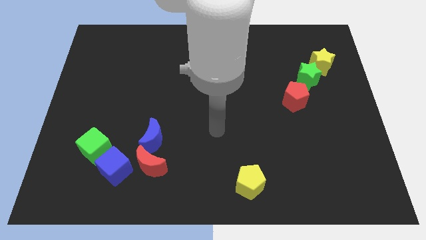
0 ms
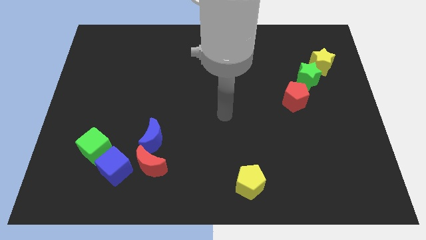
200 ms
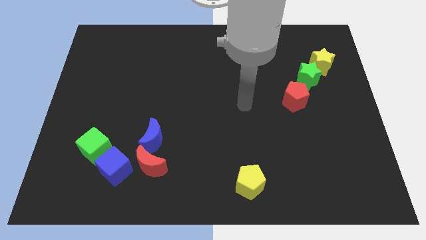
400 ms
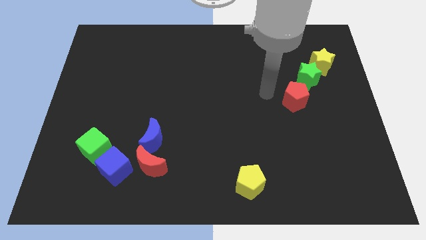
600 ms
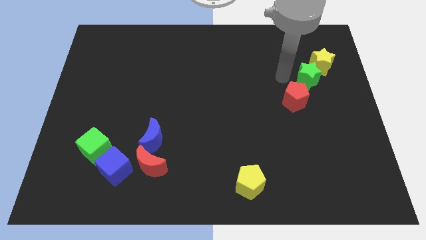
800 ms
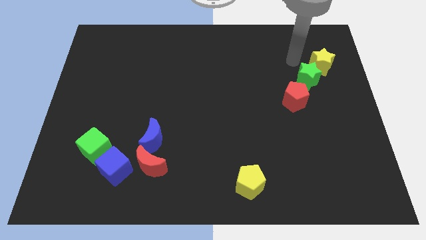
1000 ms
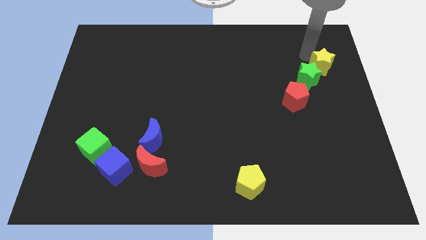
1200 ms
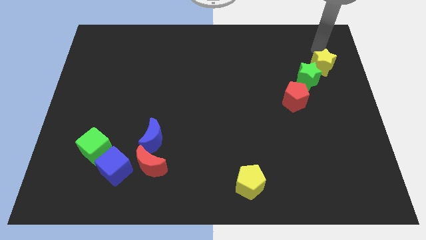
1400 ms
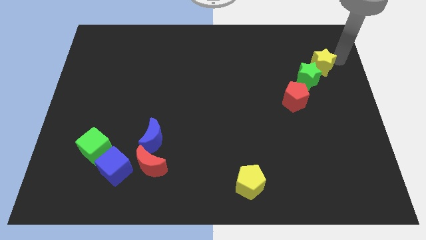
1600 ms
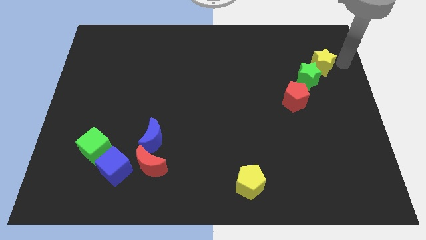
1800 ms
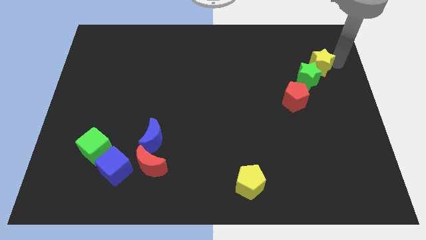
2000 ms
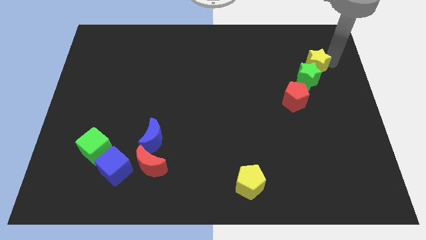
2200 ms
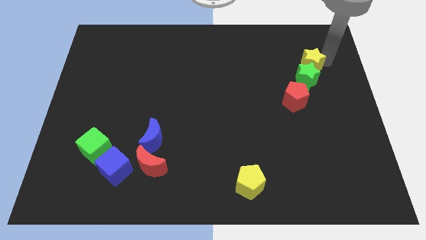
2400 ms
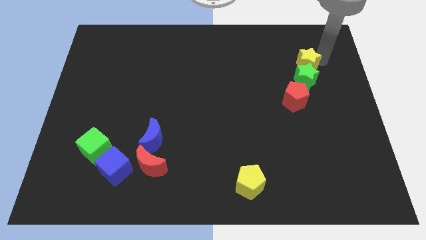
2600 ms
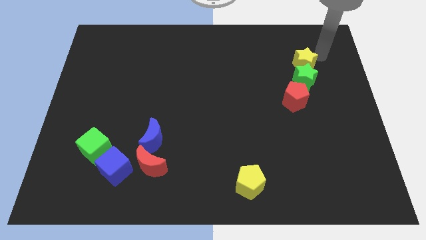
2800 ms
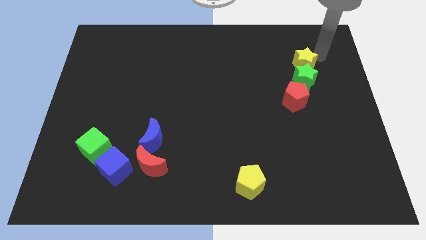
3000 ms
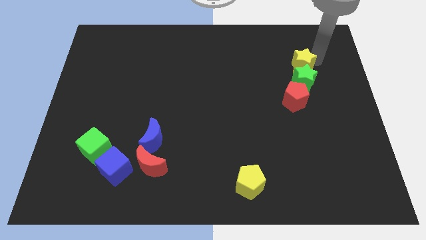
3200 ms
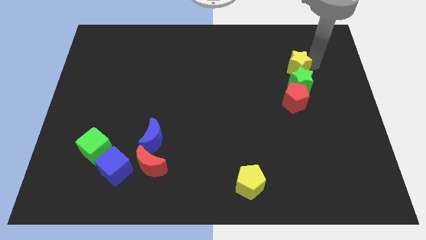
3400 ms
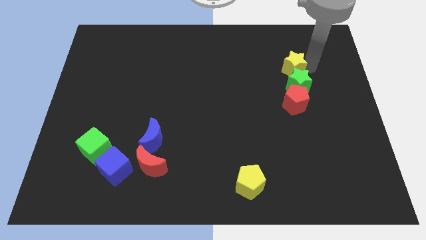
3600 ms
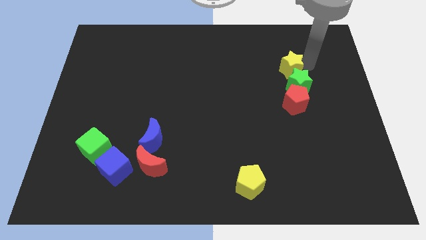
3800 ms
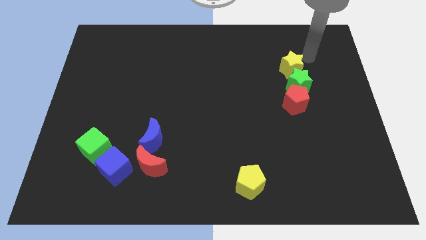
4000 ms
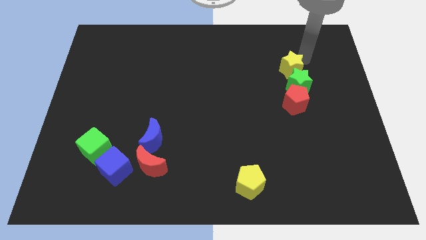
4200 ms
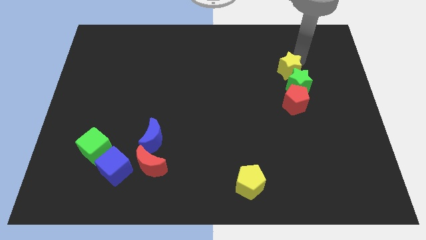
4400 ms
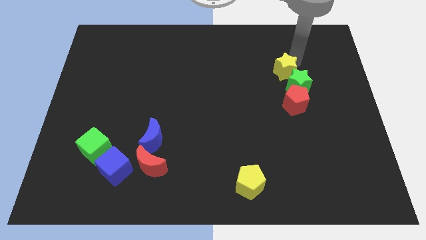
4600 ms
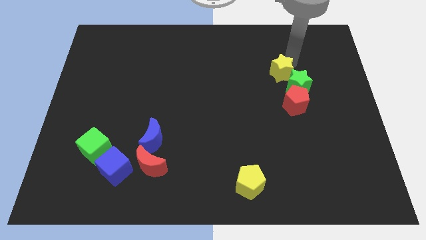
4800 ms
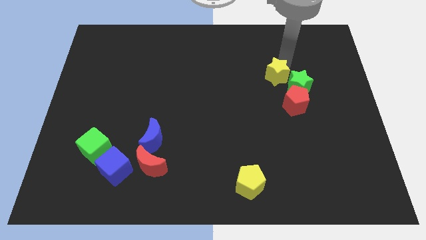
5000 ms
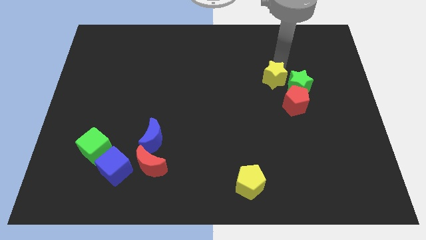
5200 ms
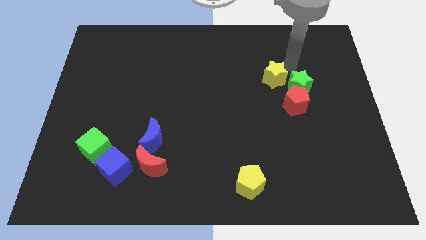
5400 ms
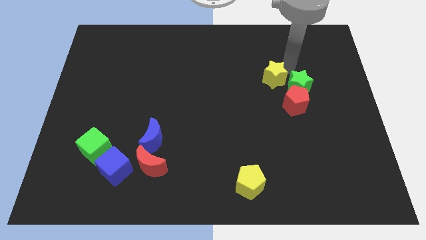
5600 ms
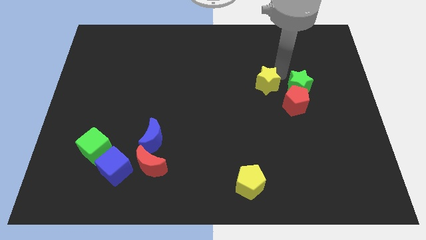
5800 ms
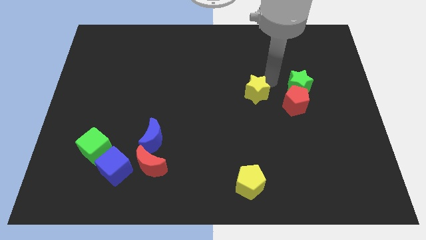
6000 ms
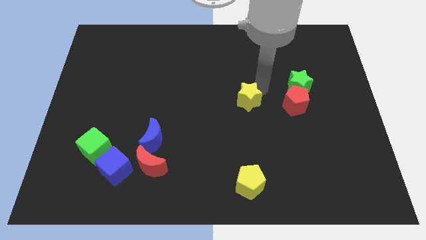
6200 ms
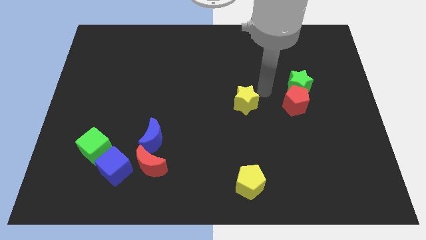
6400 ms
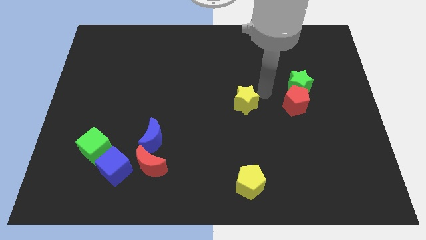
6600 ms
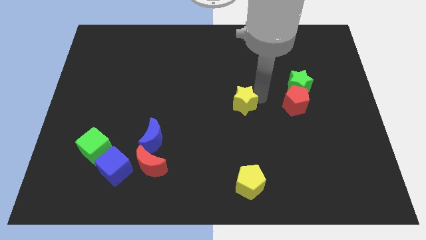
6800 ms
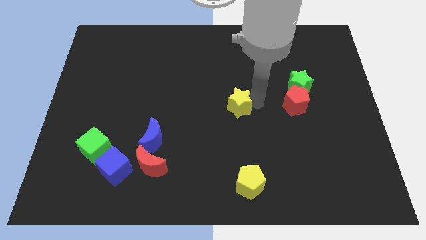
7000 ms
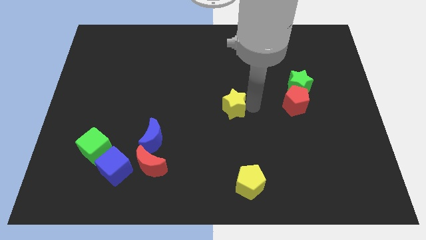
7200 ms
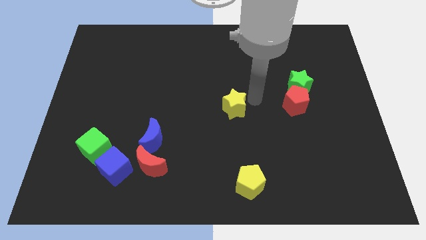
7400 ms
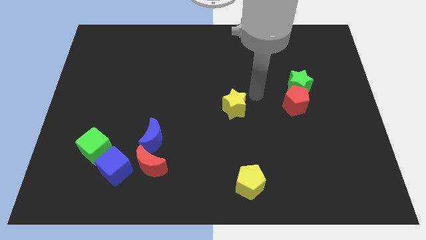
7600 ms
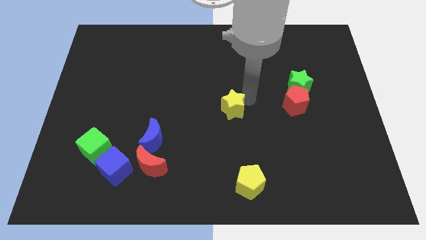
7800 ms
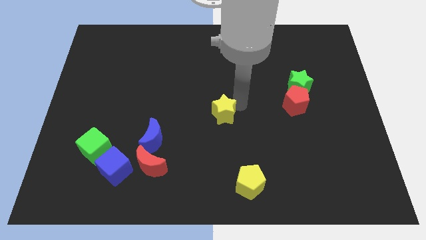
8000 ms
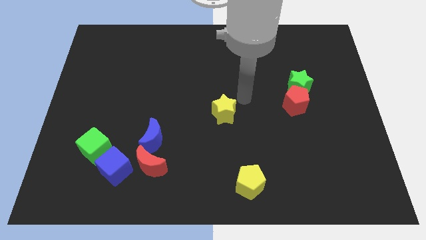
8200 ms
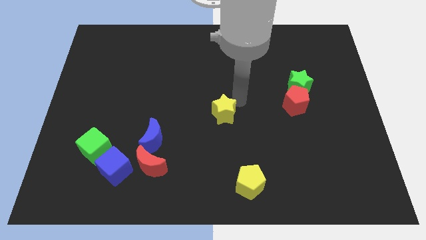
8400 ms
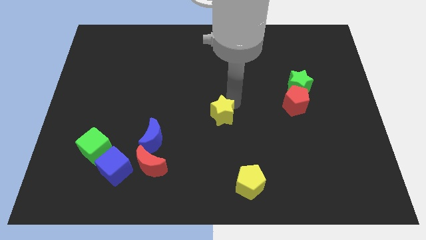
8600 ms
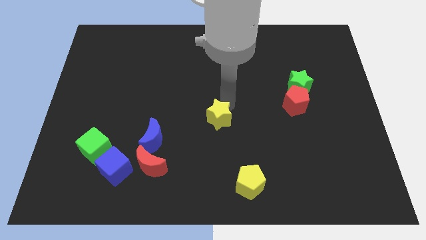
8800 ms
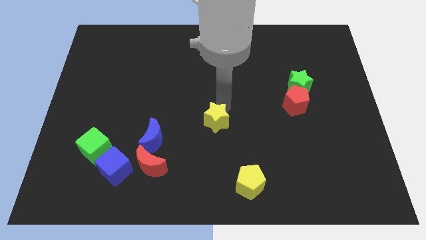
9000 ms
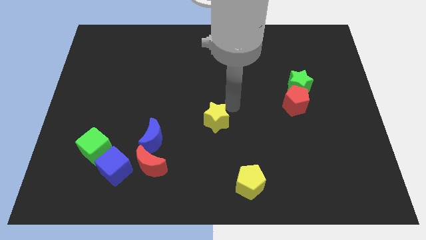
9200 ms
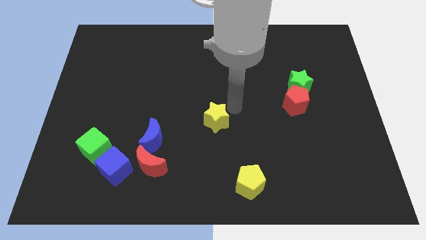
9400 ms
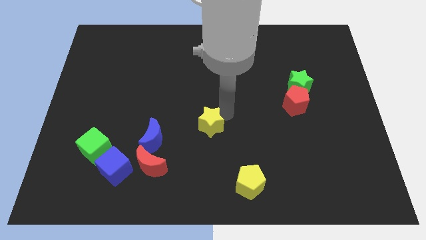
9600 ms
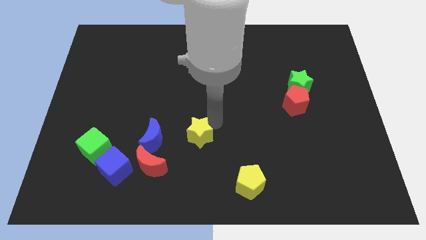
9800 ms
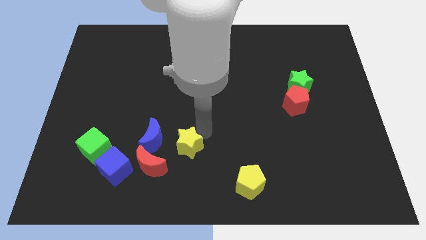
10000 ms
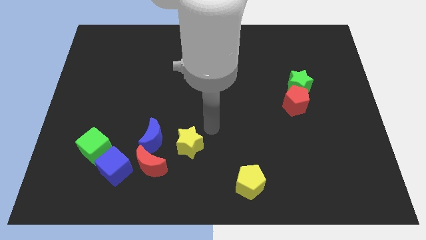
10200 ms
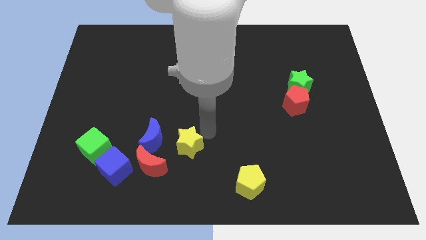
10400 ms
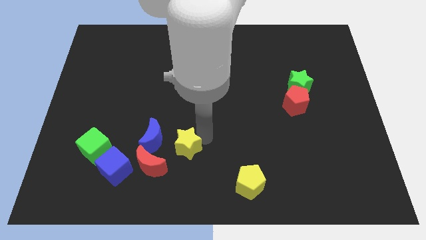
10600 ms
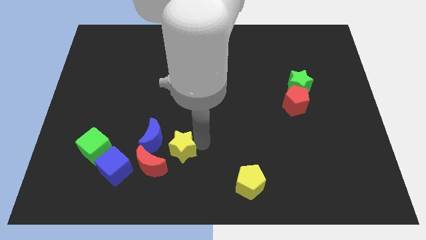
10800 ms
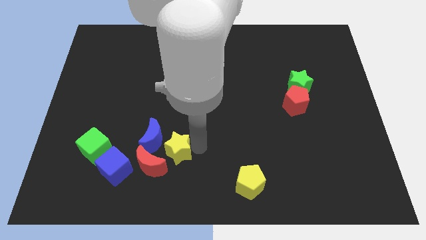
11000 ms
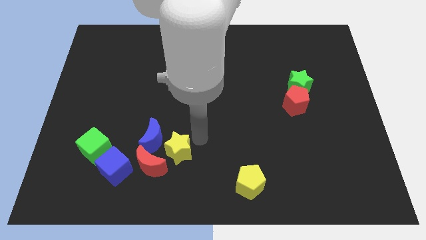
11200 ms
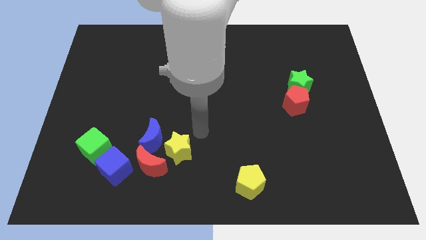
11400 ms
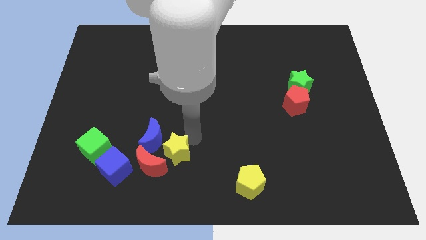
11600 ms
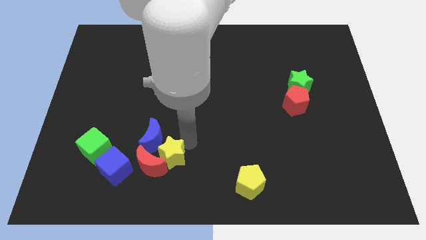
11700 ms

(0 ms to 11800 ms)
slide the yellow star close to the red moon

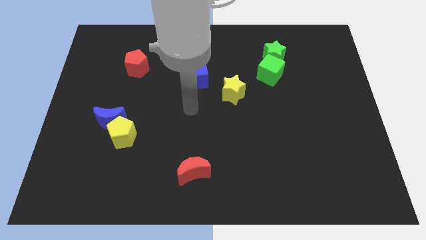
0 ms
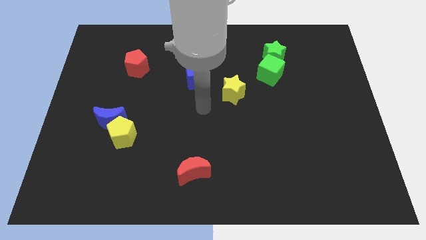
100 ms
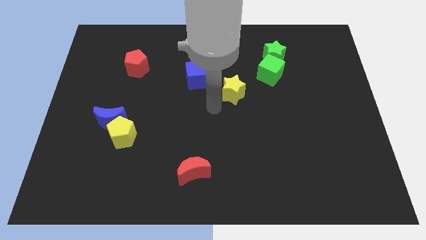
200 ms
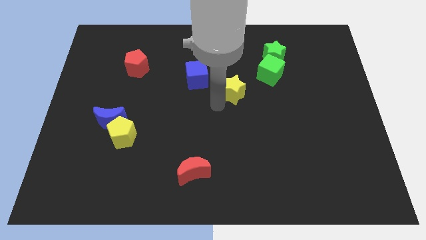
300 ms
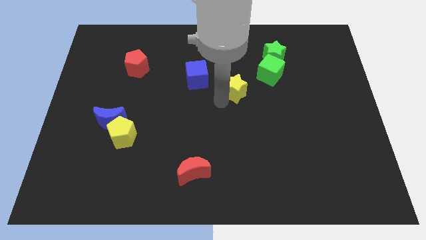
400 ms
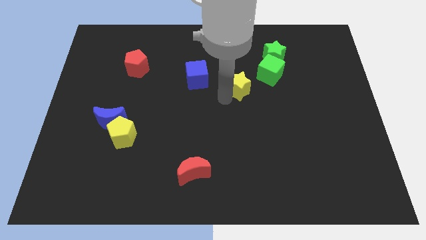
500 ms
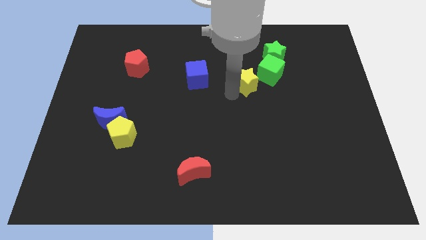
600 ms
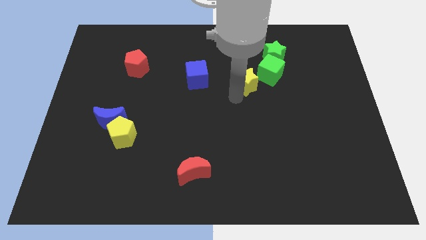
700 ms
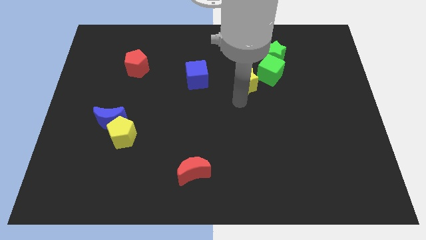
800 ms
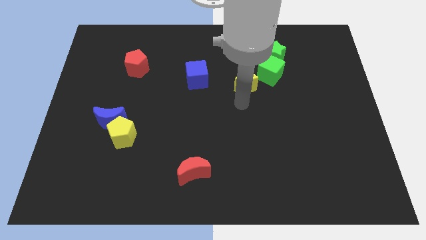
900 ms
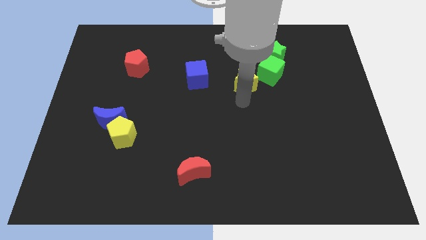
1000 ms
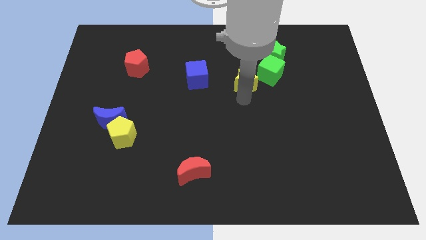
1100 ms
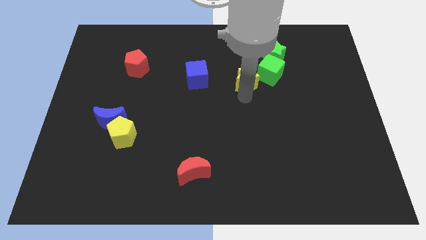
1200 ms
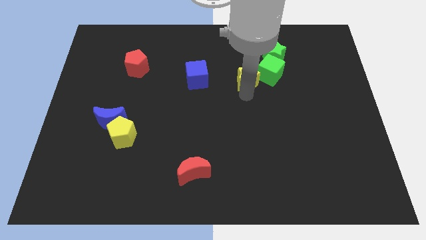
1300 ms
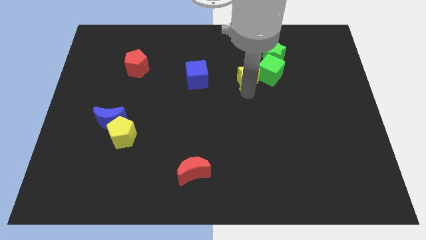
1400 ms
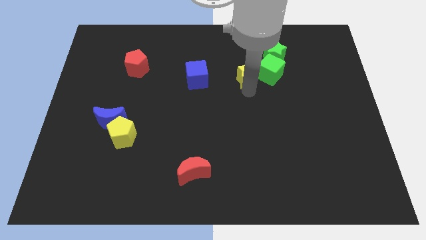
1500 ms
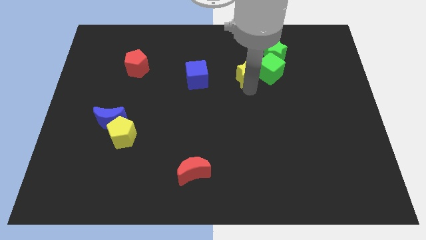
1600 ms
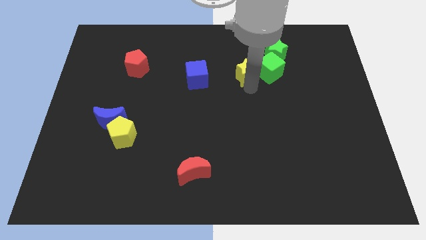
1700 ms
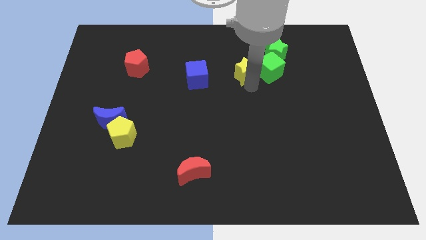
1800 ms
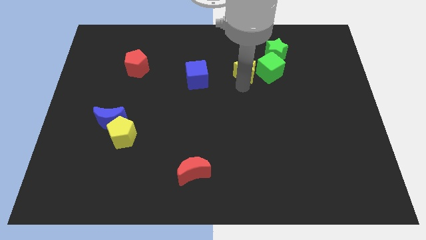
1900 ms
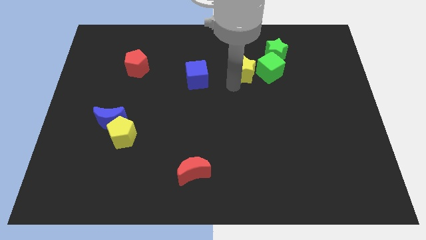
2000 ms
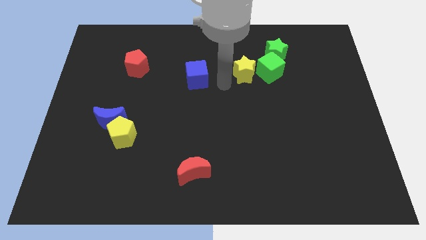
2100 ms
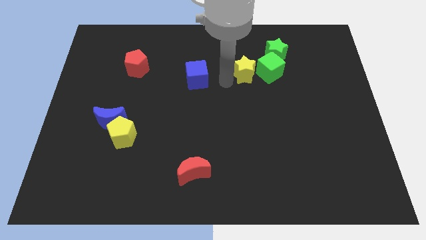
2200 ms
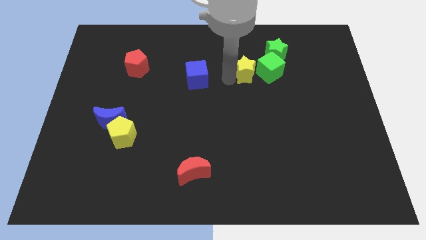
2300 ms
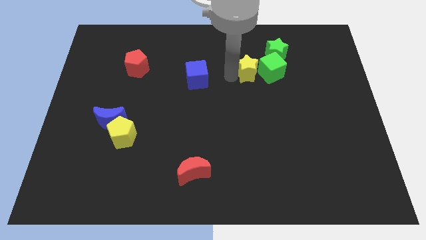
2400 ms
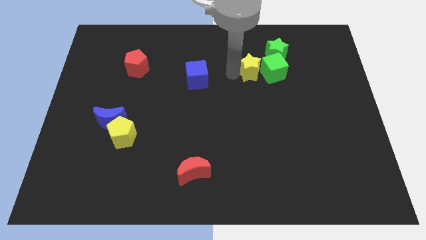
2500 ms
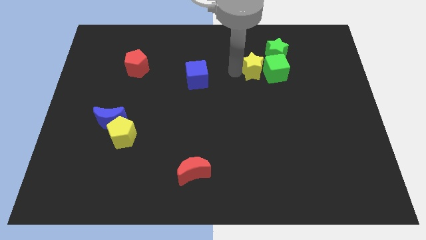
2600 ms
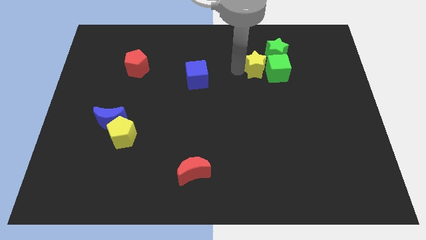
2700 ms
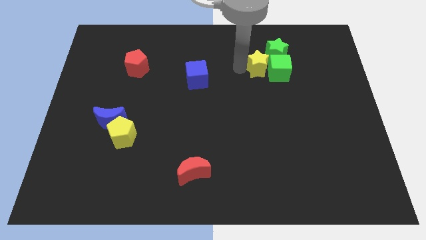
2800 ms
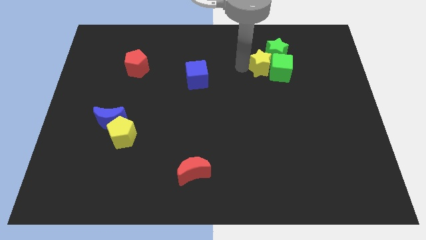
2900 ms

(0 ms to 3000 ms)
move the yellow star next to the green star
